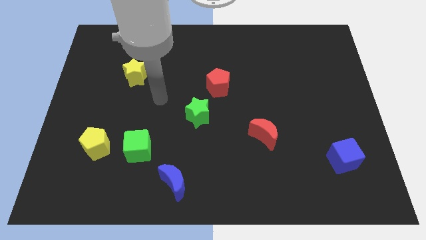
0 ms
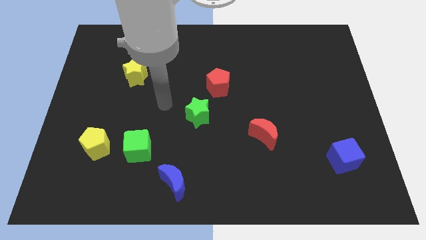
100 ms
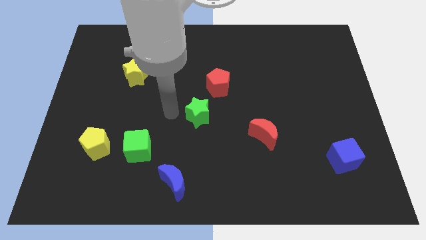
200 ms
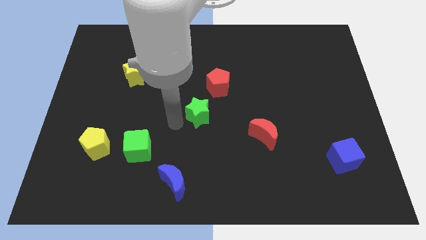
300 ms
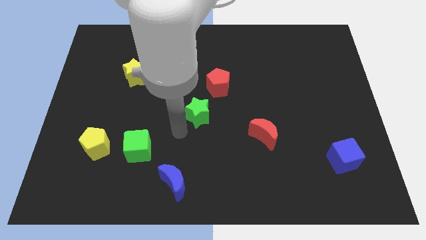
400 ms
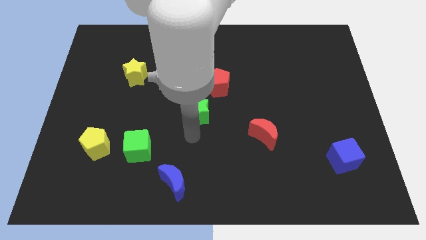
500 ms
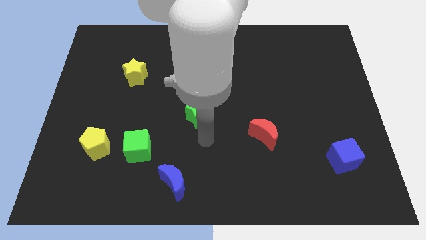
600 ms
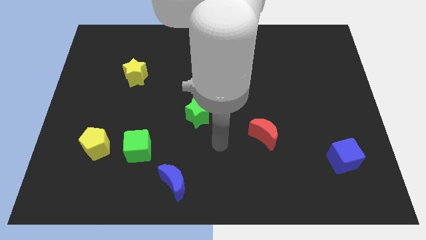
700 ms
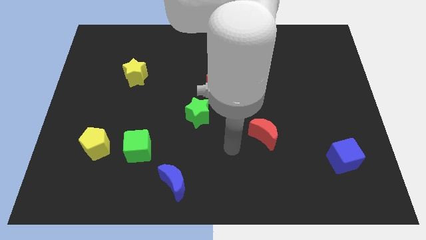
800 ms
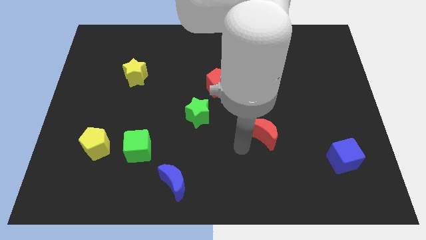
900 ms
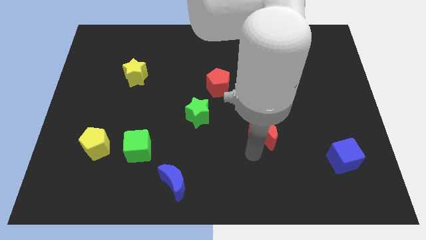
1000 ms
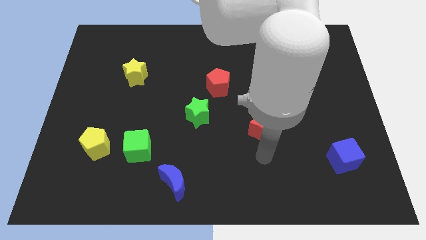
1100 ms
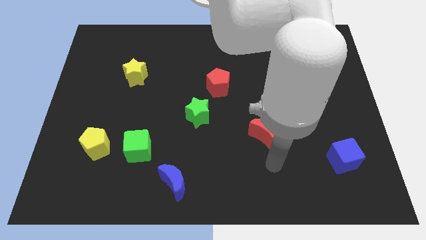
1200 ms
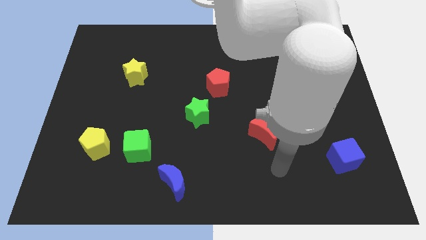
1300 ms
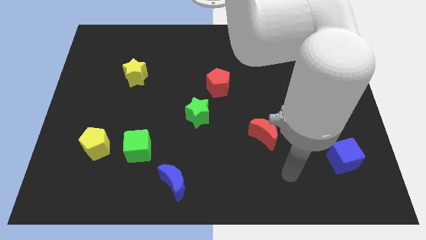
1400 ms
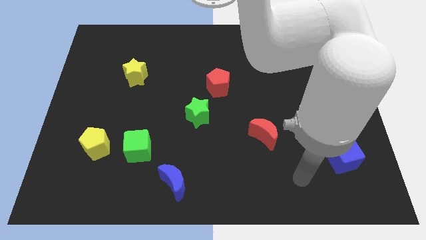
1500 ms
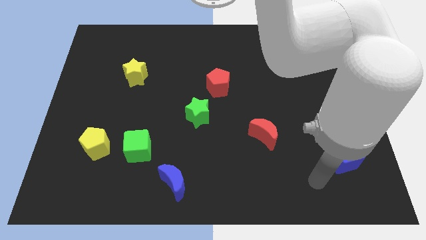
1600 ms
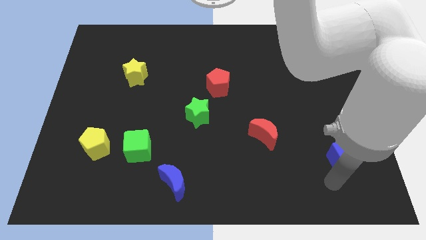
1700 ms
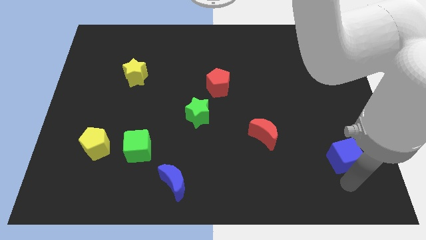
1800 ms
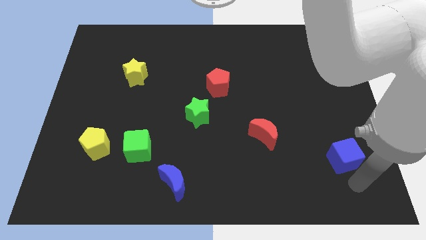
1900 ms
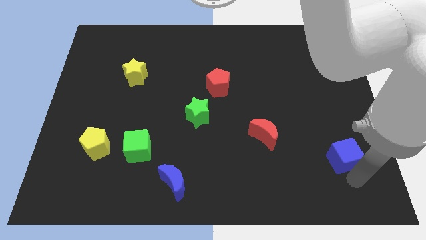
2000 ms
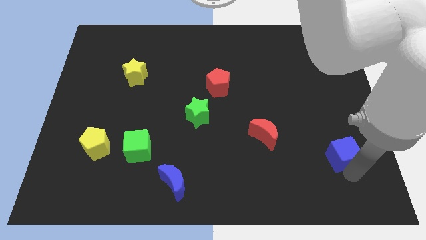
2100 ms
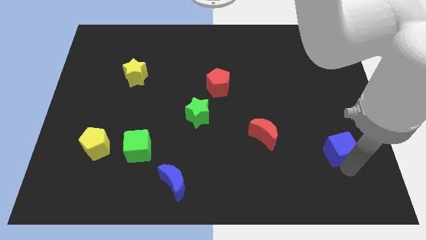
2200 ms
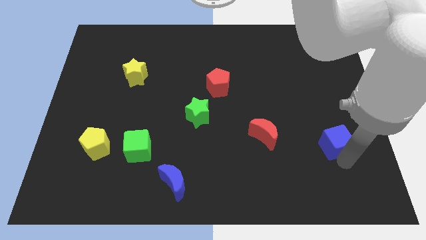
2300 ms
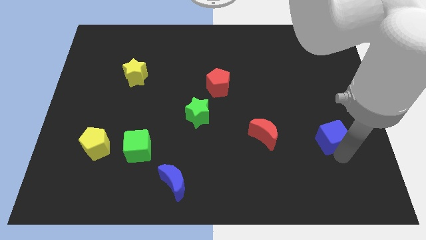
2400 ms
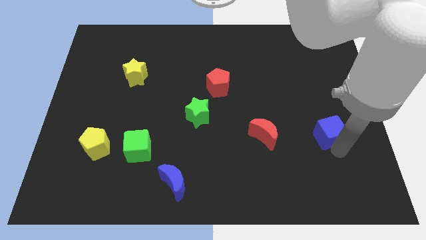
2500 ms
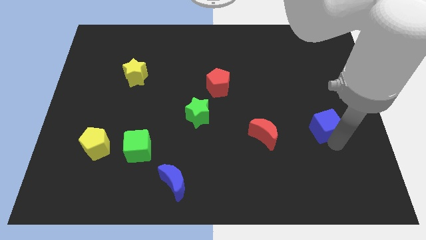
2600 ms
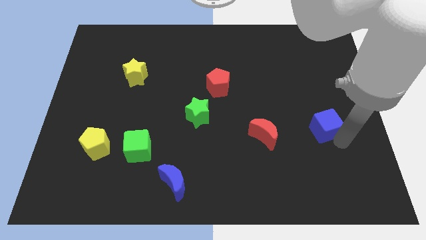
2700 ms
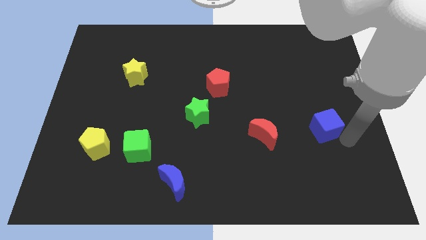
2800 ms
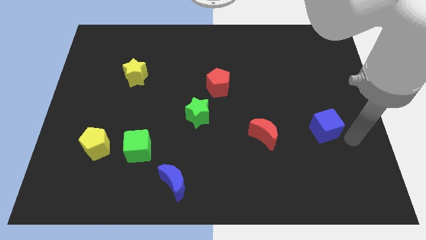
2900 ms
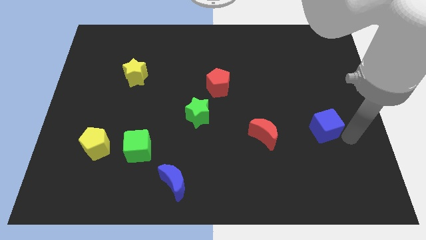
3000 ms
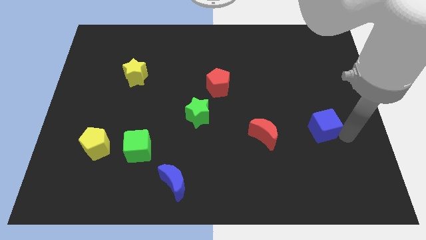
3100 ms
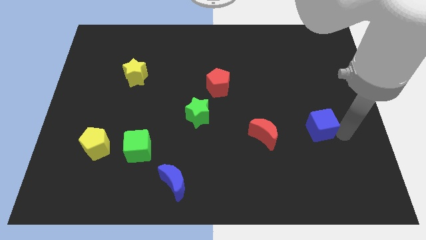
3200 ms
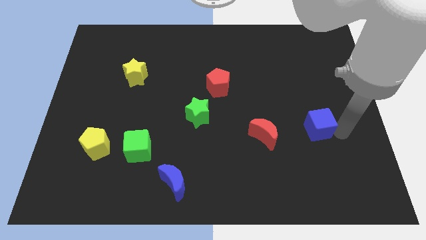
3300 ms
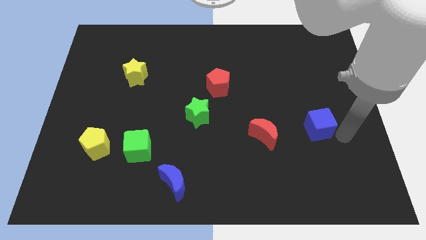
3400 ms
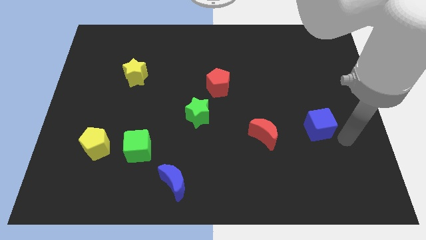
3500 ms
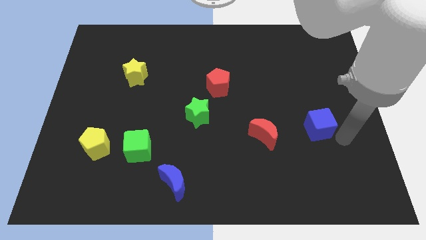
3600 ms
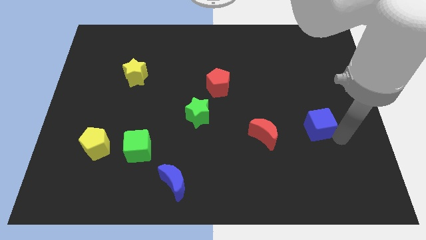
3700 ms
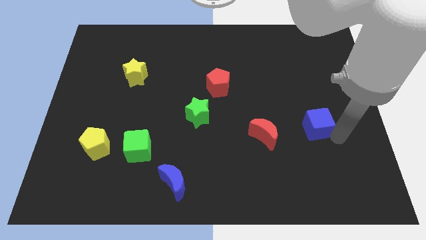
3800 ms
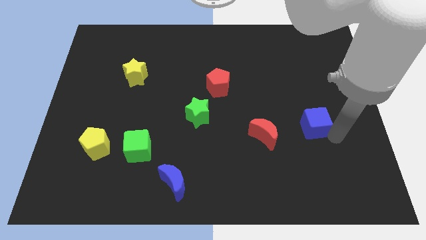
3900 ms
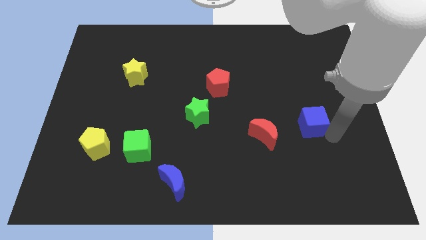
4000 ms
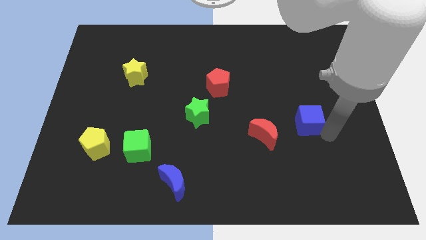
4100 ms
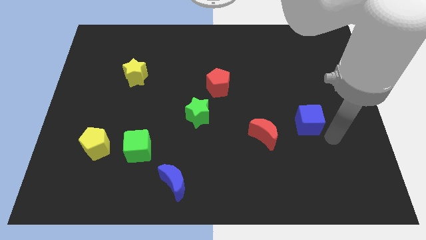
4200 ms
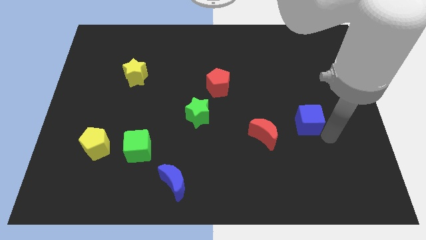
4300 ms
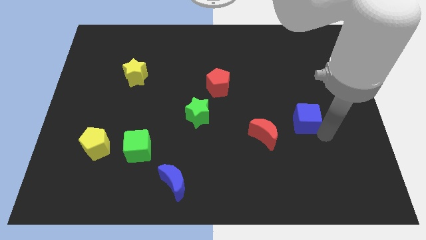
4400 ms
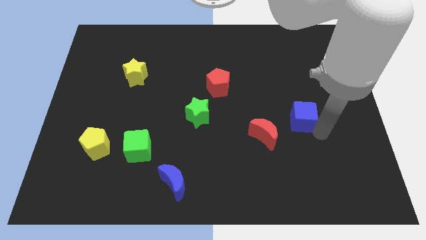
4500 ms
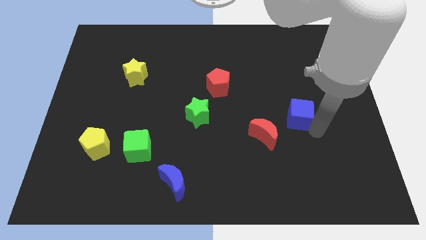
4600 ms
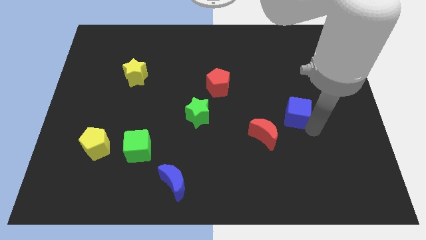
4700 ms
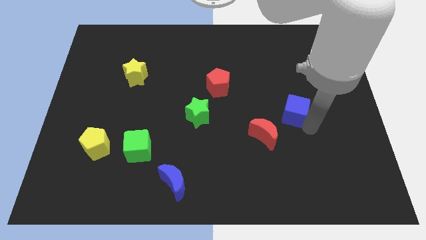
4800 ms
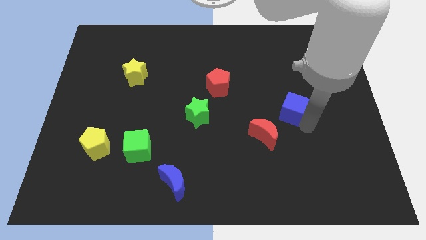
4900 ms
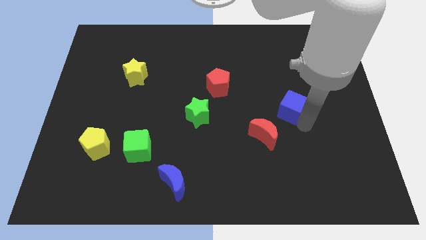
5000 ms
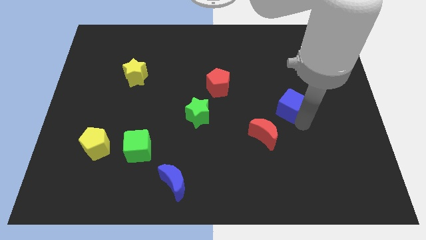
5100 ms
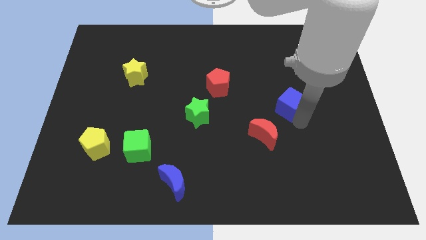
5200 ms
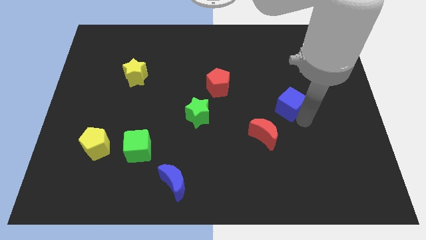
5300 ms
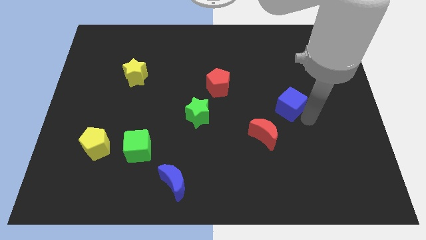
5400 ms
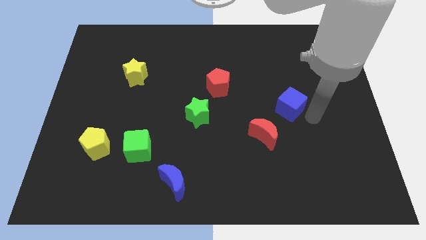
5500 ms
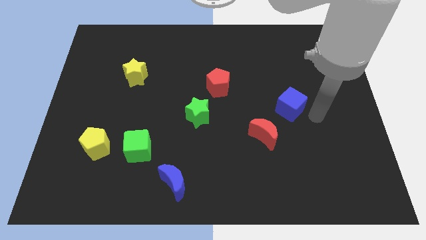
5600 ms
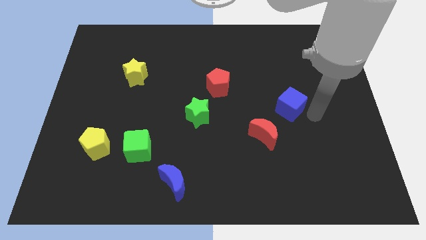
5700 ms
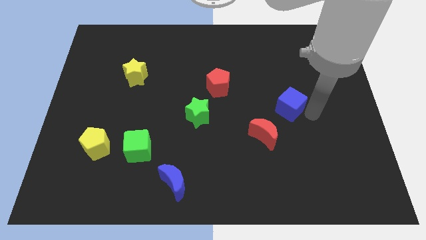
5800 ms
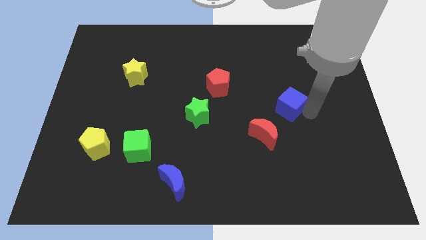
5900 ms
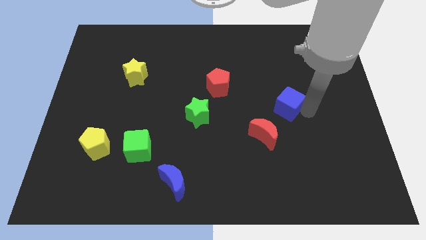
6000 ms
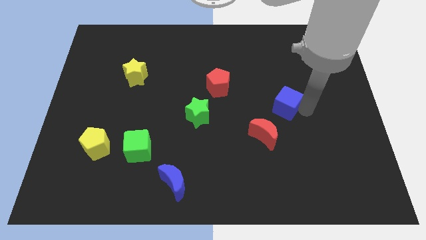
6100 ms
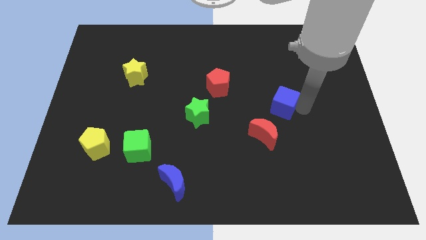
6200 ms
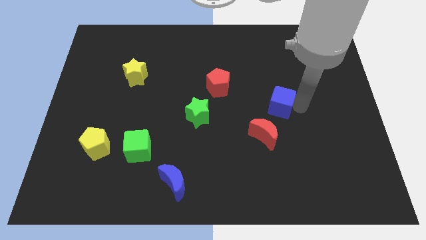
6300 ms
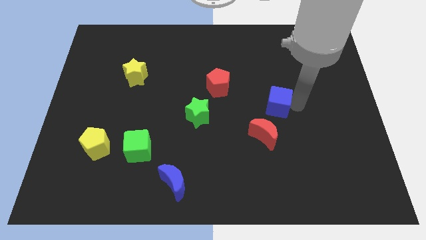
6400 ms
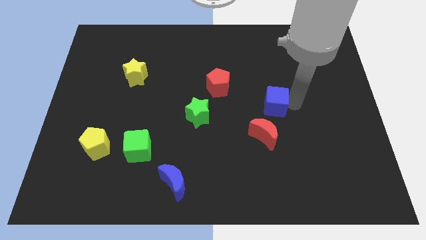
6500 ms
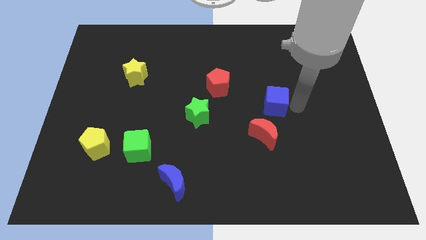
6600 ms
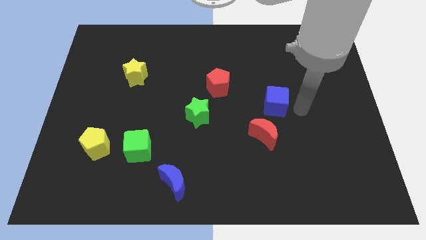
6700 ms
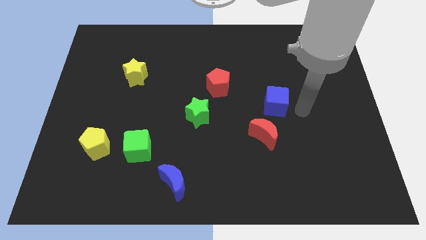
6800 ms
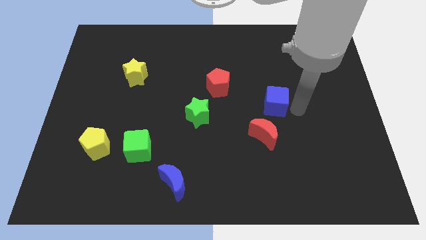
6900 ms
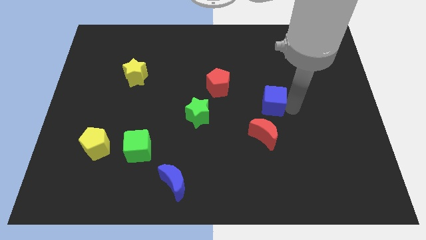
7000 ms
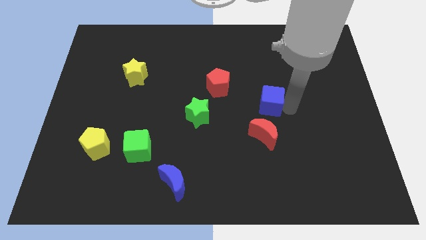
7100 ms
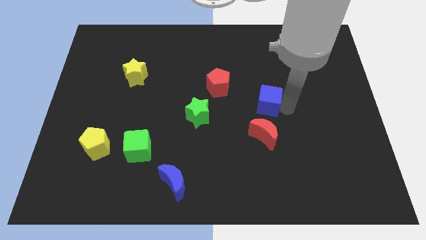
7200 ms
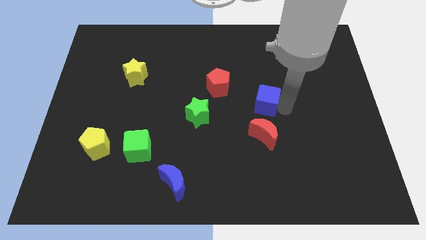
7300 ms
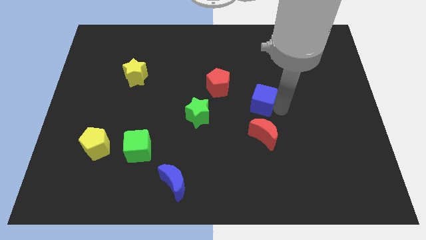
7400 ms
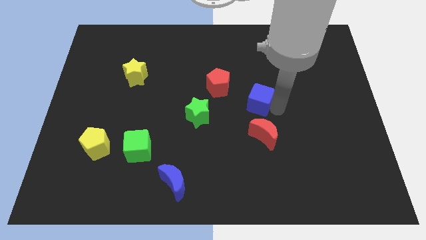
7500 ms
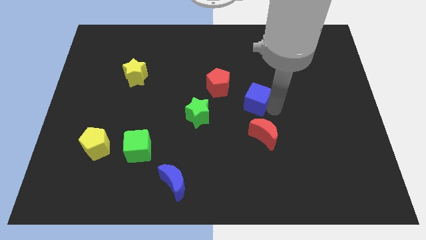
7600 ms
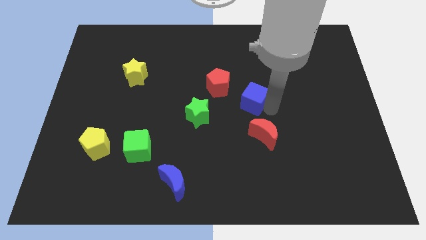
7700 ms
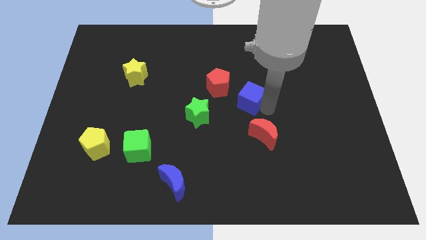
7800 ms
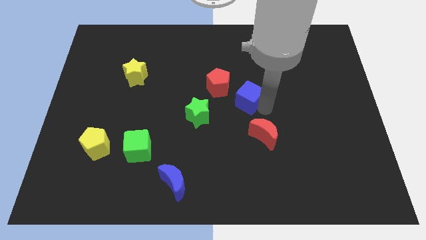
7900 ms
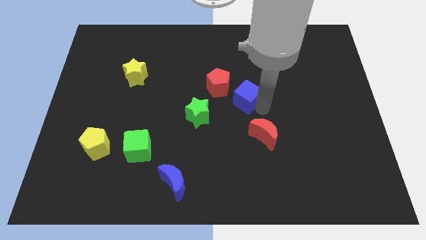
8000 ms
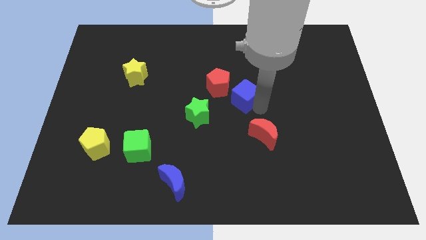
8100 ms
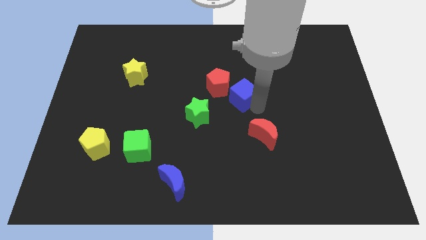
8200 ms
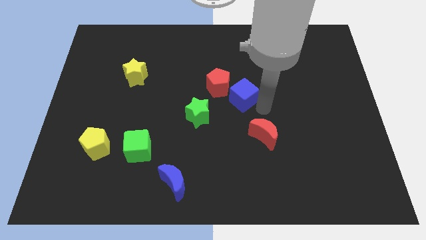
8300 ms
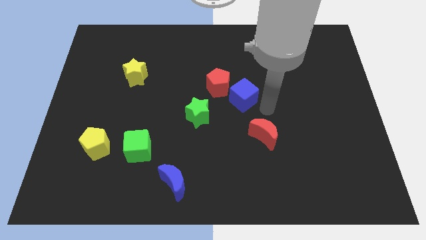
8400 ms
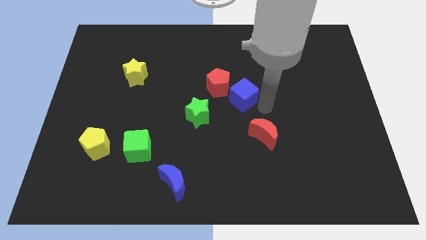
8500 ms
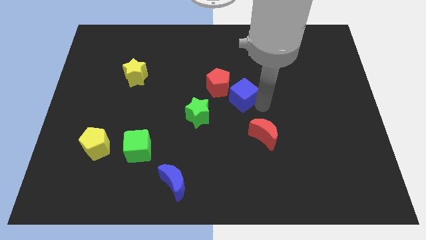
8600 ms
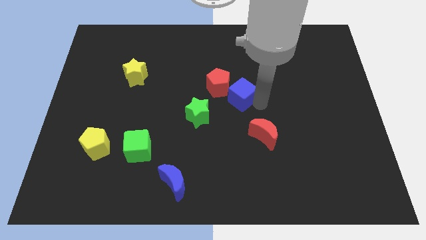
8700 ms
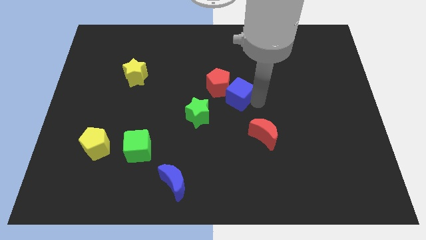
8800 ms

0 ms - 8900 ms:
move the blue cube close to the red pentagon
